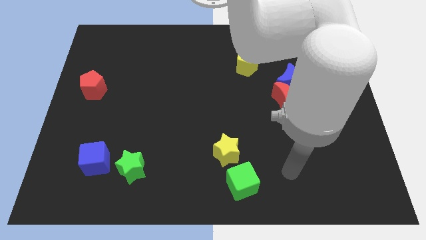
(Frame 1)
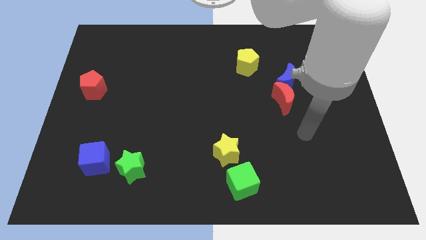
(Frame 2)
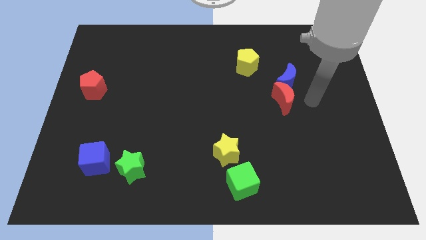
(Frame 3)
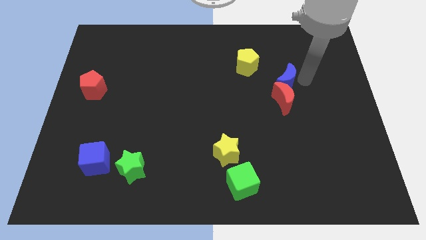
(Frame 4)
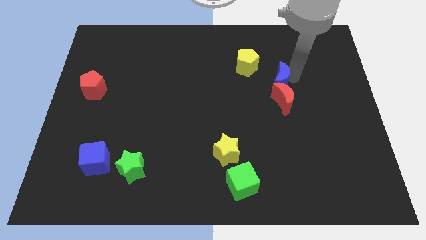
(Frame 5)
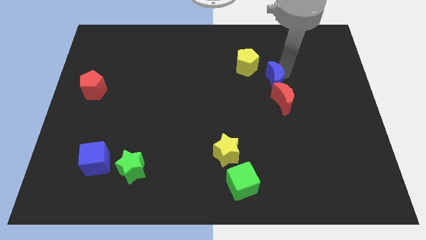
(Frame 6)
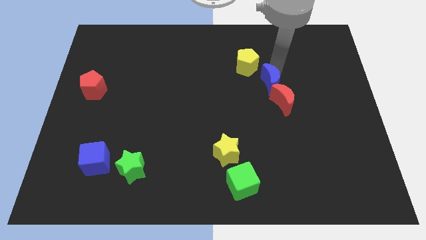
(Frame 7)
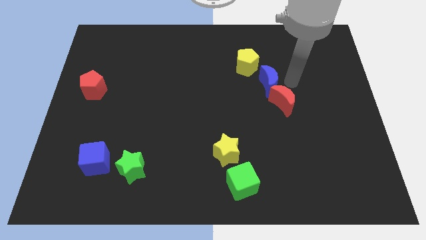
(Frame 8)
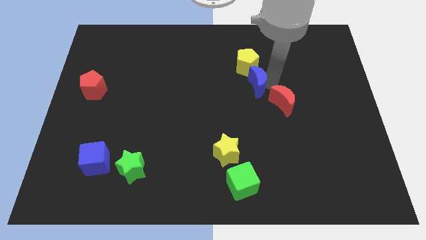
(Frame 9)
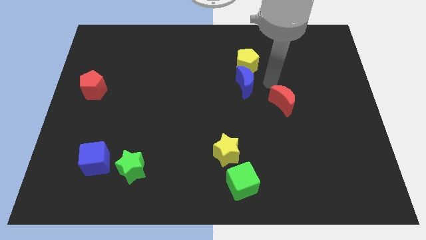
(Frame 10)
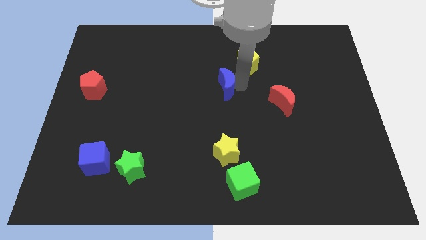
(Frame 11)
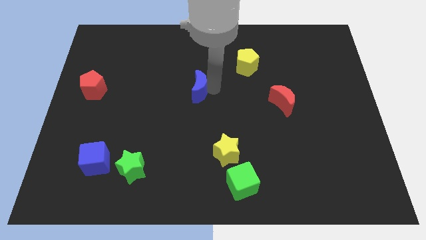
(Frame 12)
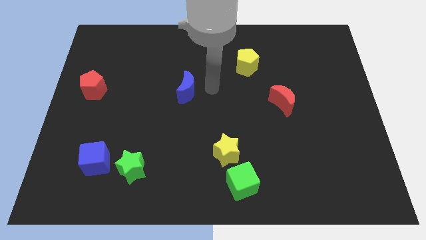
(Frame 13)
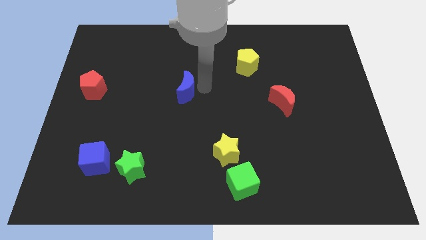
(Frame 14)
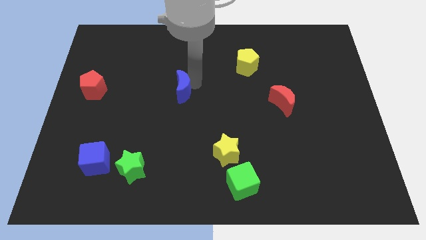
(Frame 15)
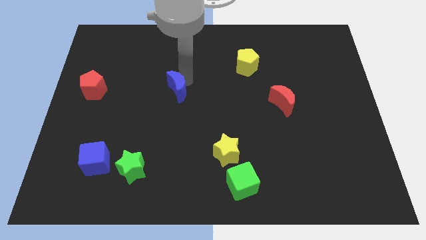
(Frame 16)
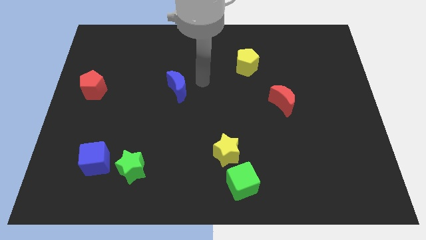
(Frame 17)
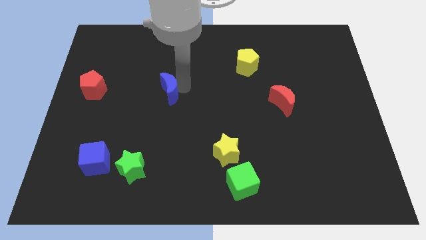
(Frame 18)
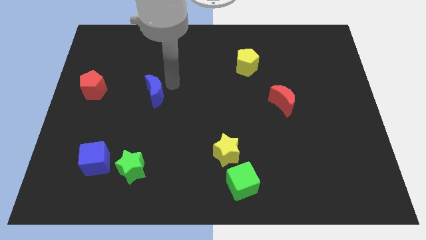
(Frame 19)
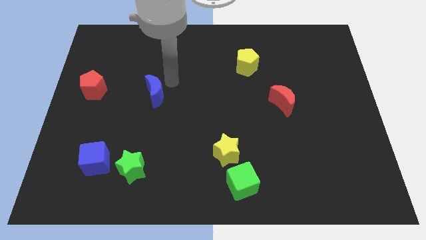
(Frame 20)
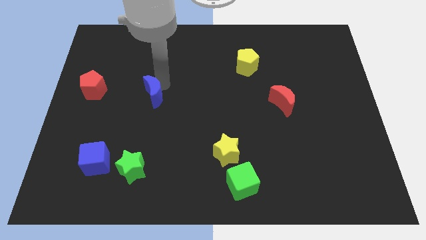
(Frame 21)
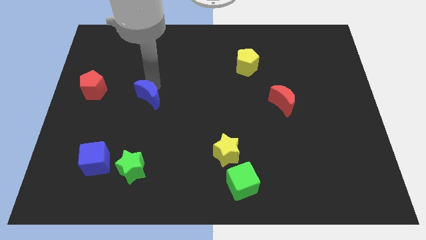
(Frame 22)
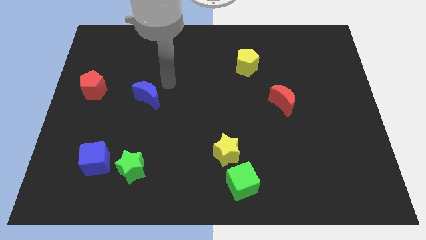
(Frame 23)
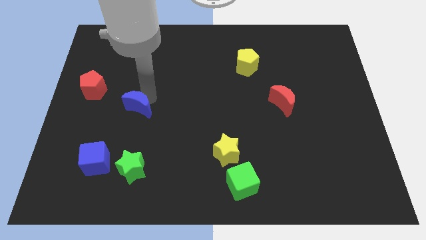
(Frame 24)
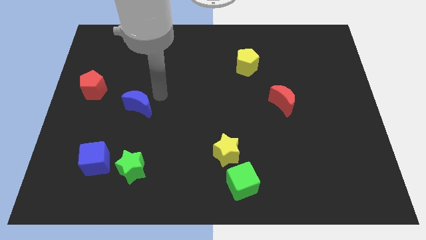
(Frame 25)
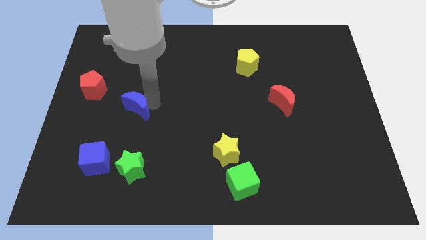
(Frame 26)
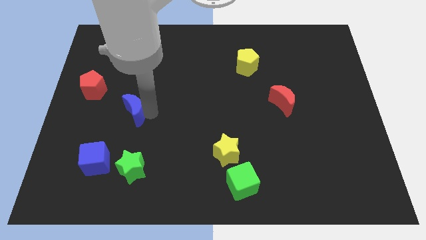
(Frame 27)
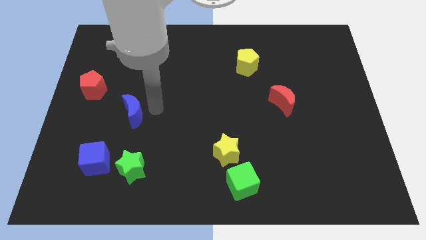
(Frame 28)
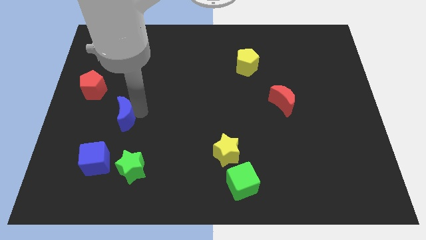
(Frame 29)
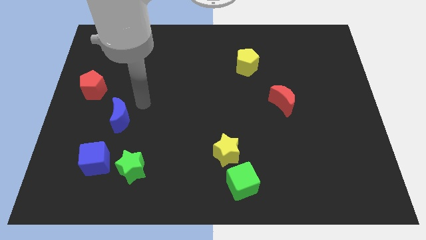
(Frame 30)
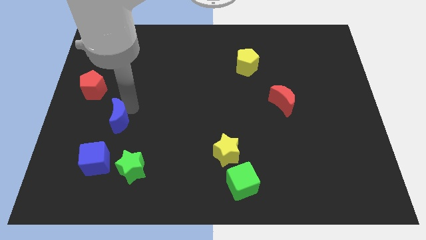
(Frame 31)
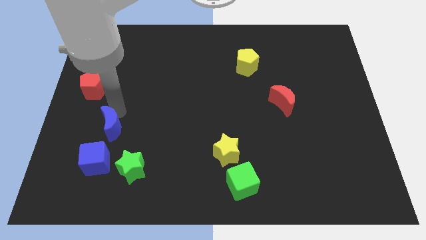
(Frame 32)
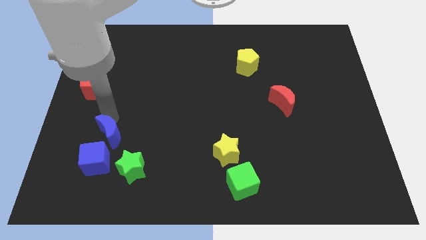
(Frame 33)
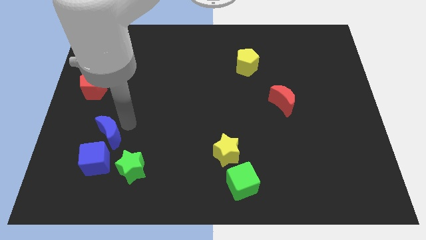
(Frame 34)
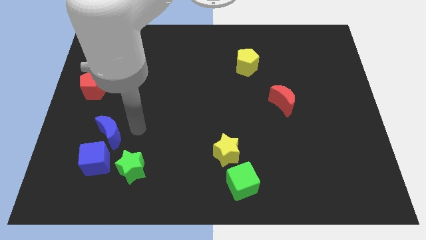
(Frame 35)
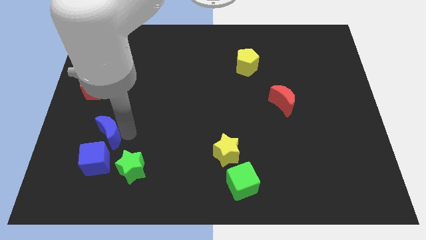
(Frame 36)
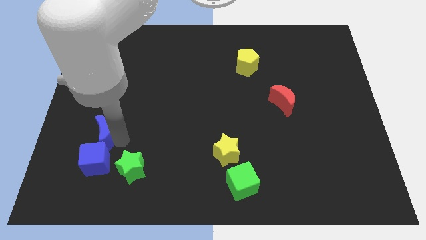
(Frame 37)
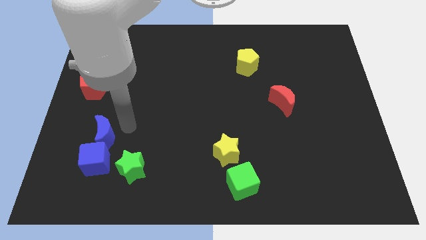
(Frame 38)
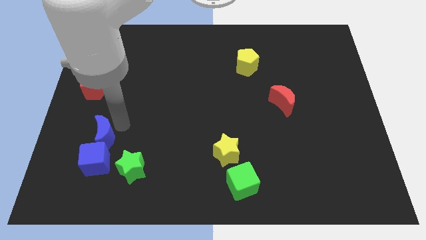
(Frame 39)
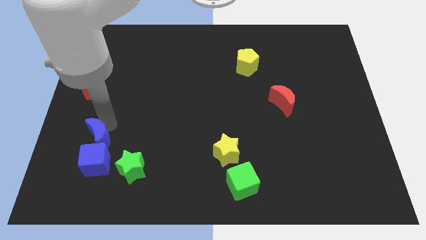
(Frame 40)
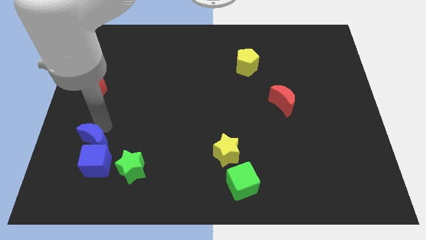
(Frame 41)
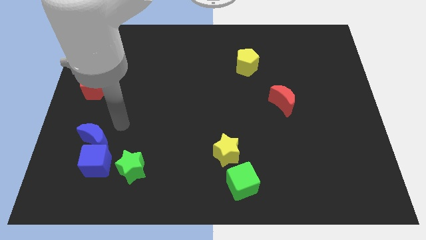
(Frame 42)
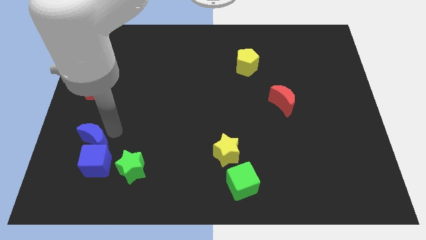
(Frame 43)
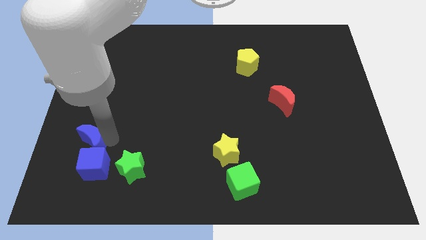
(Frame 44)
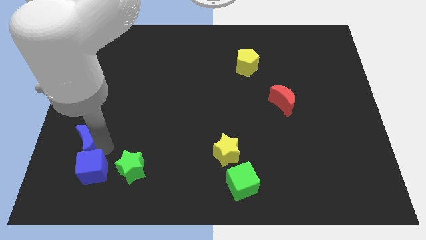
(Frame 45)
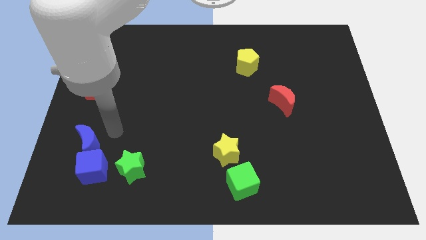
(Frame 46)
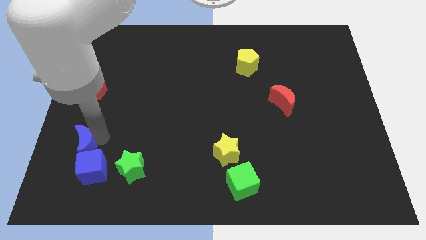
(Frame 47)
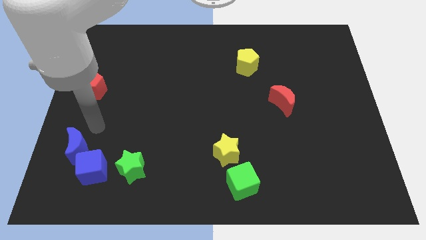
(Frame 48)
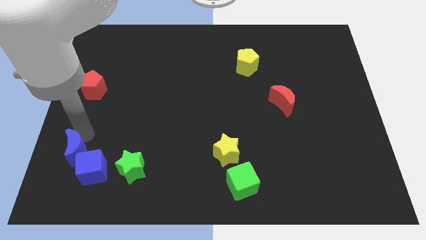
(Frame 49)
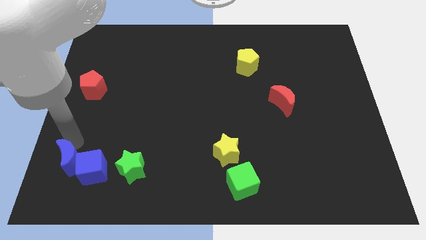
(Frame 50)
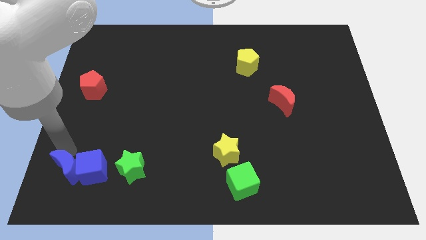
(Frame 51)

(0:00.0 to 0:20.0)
push the blue moon to the bottom left

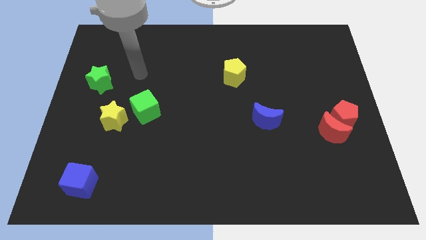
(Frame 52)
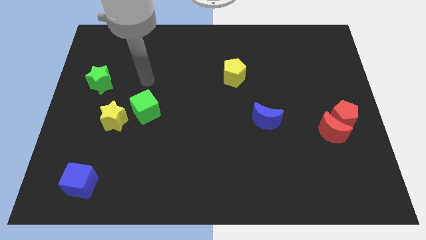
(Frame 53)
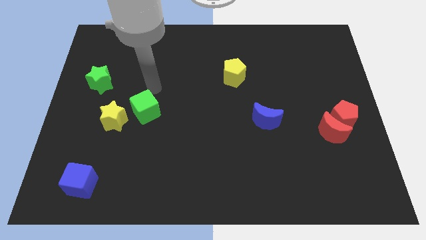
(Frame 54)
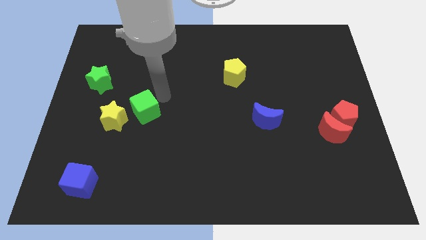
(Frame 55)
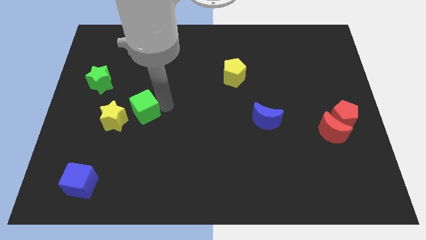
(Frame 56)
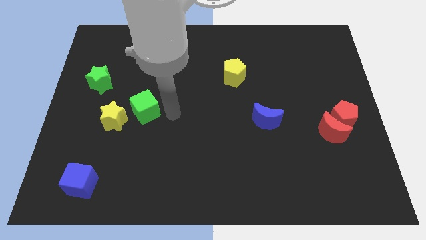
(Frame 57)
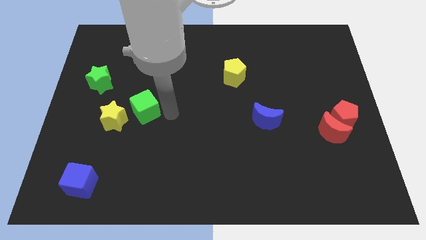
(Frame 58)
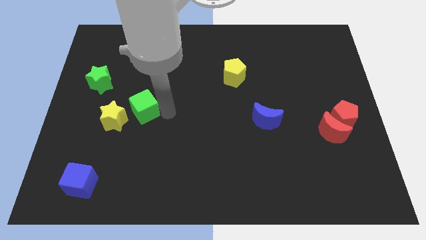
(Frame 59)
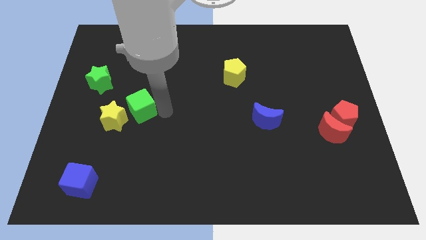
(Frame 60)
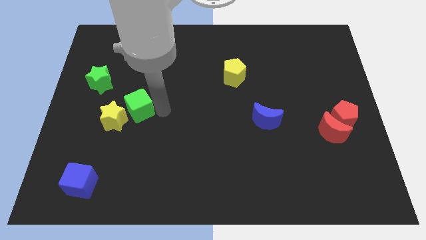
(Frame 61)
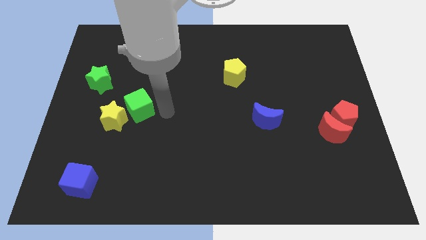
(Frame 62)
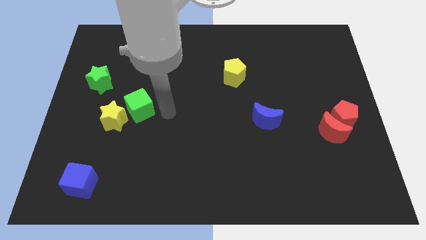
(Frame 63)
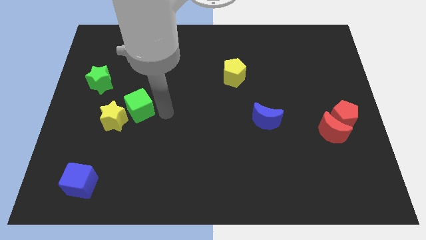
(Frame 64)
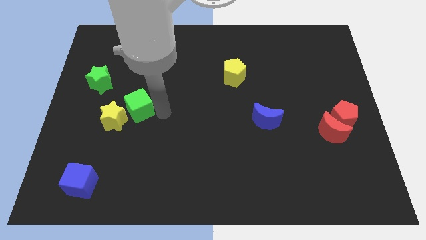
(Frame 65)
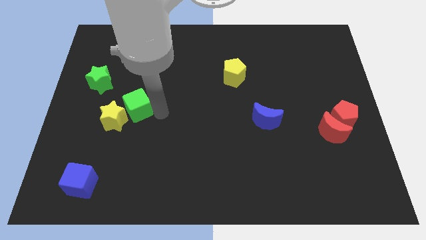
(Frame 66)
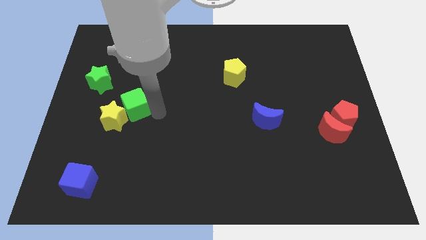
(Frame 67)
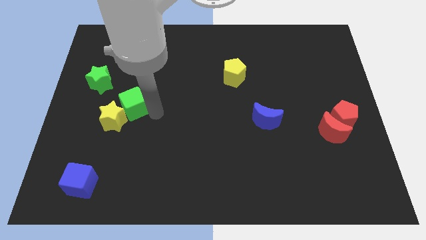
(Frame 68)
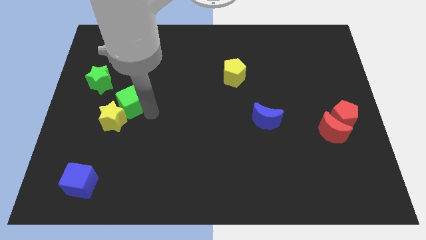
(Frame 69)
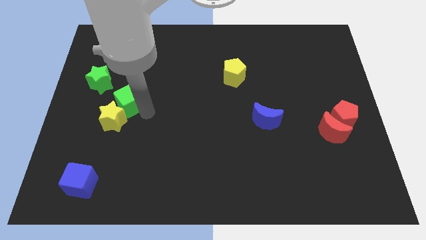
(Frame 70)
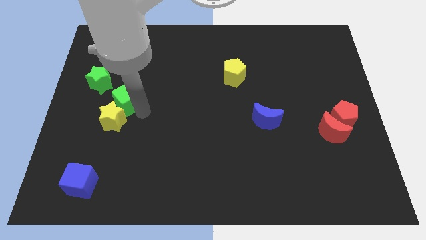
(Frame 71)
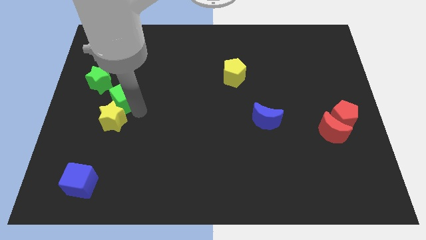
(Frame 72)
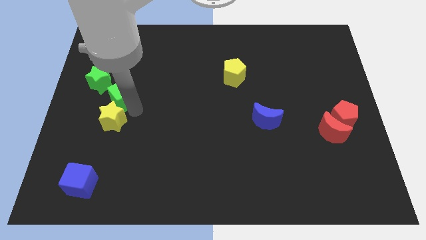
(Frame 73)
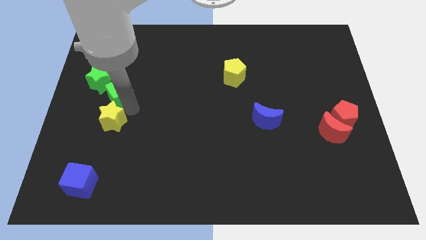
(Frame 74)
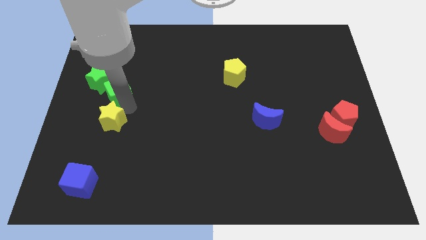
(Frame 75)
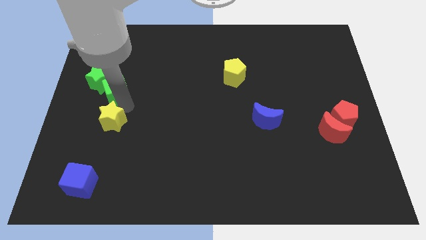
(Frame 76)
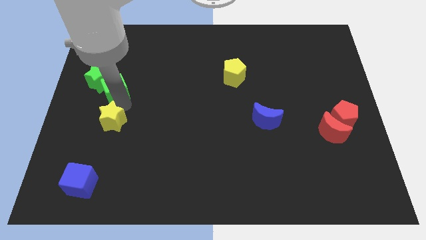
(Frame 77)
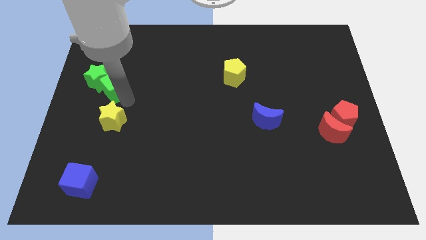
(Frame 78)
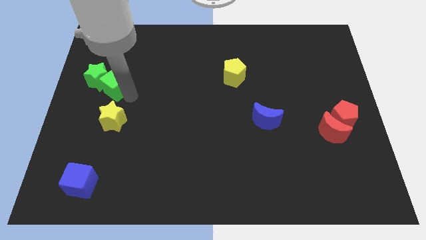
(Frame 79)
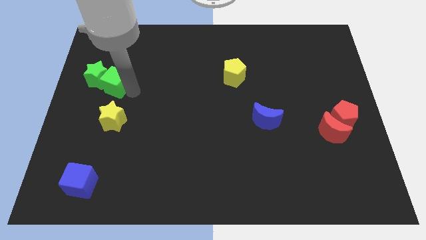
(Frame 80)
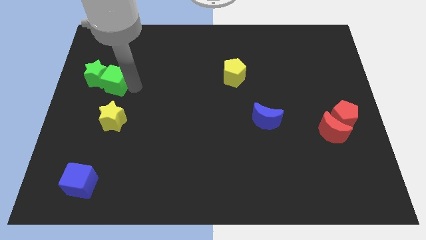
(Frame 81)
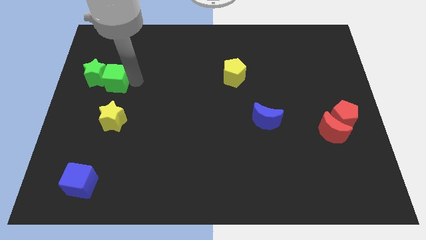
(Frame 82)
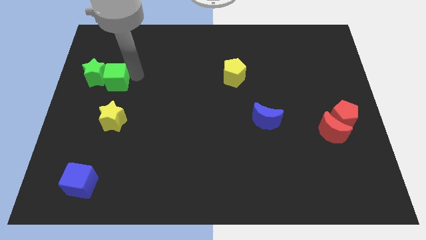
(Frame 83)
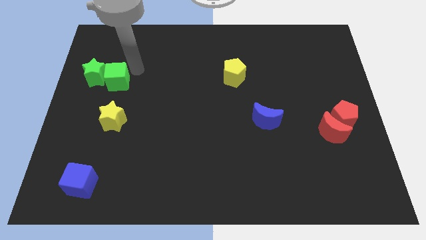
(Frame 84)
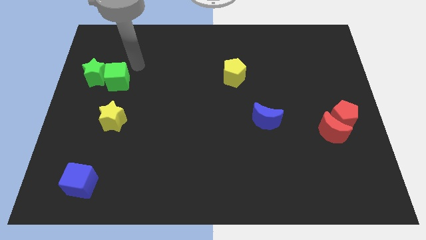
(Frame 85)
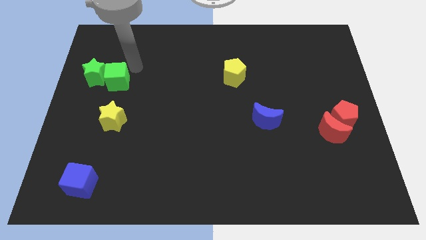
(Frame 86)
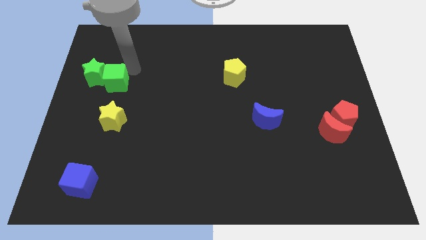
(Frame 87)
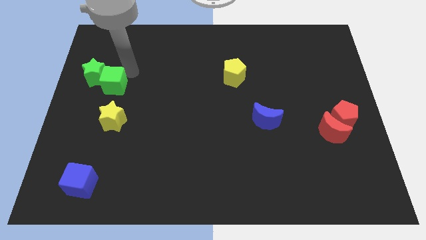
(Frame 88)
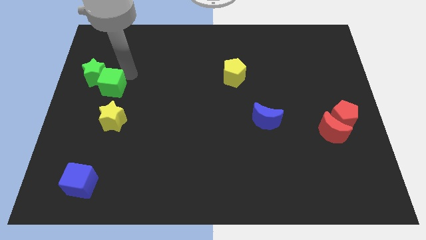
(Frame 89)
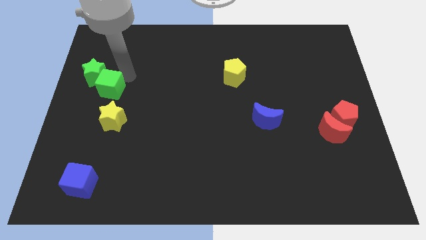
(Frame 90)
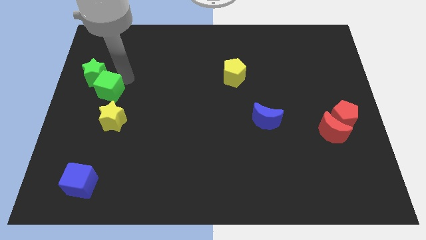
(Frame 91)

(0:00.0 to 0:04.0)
move the green cube to the center left
